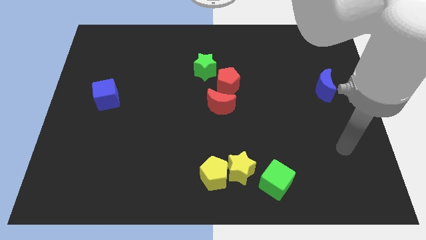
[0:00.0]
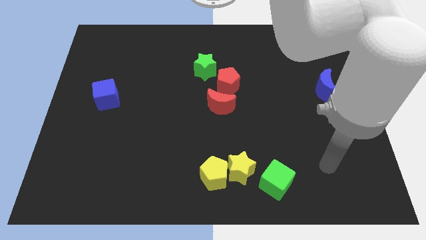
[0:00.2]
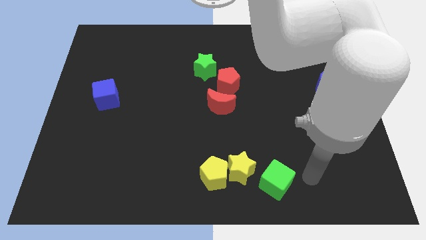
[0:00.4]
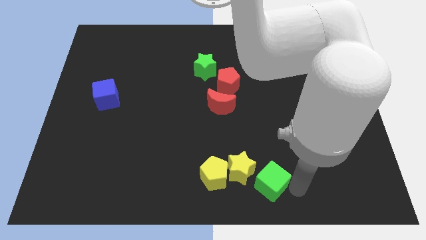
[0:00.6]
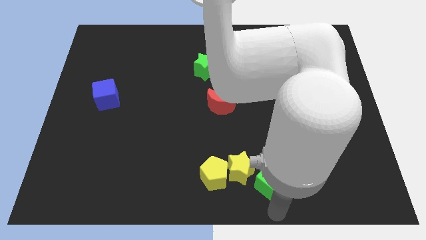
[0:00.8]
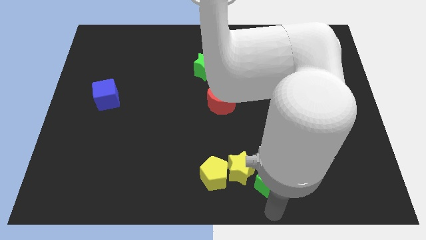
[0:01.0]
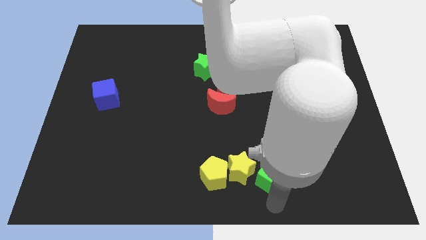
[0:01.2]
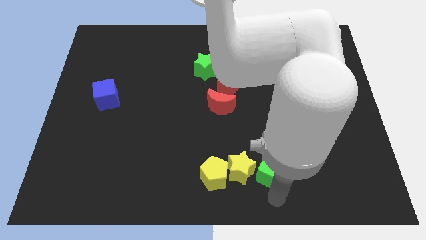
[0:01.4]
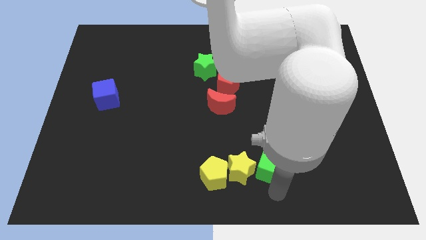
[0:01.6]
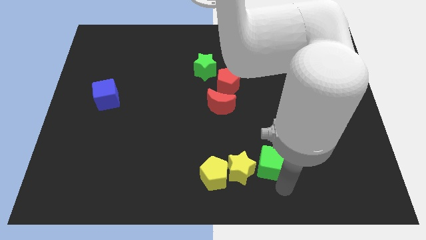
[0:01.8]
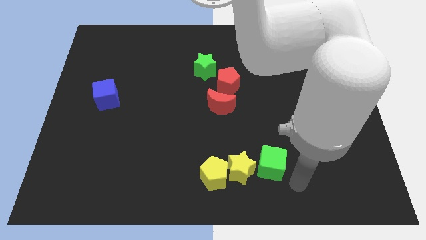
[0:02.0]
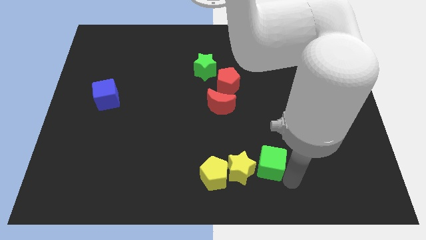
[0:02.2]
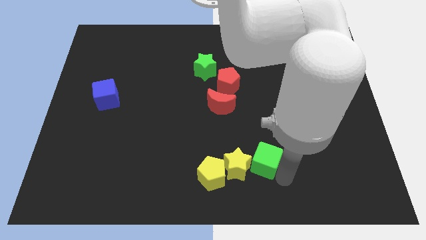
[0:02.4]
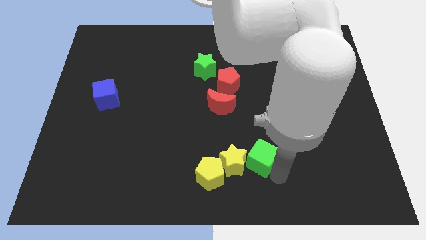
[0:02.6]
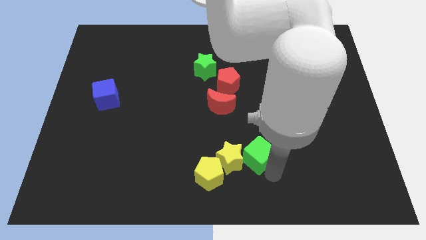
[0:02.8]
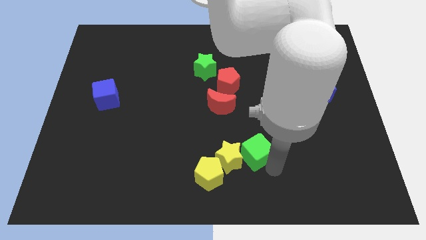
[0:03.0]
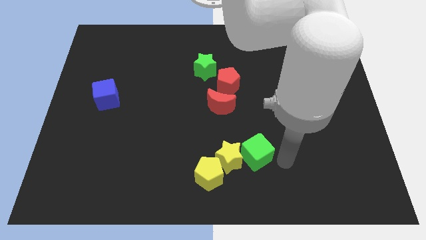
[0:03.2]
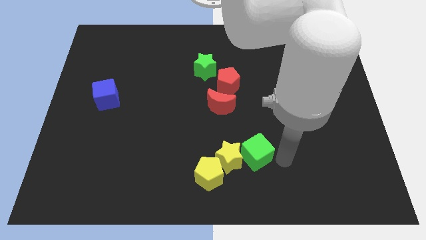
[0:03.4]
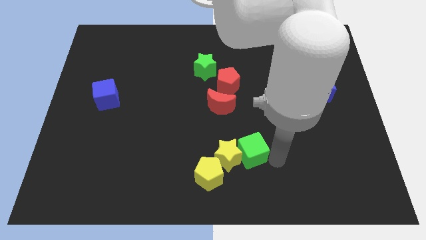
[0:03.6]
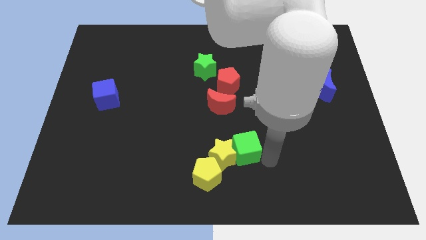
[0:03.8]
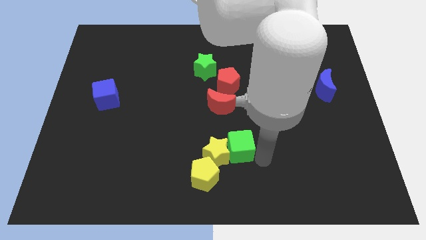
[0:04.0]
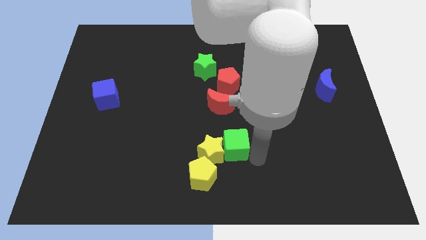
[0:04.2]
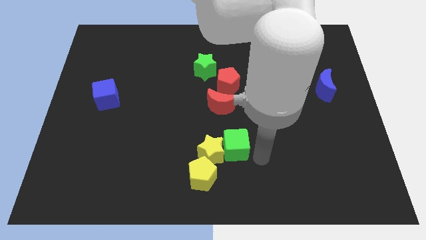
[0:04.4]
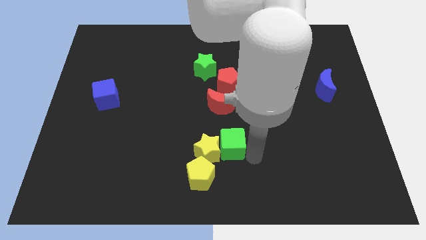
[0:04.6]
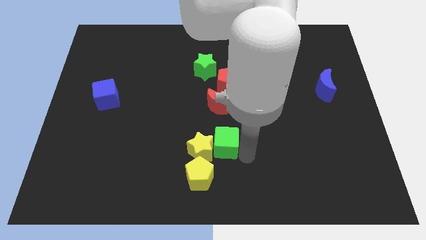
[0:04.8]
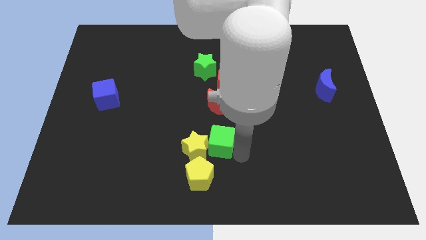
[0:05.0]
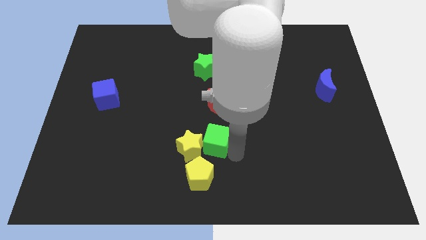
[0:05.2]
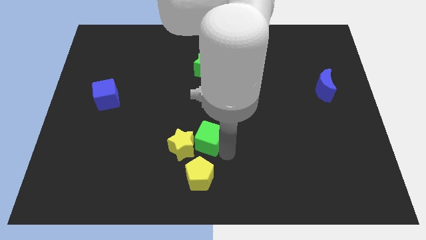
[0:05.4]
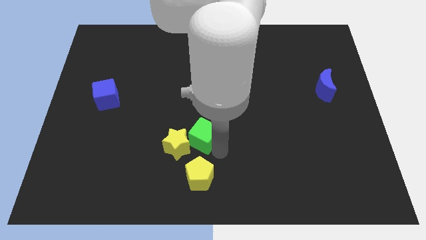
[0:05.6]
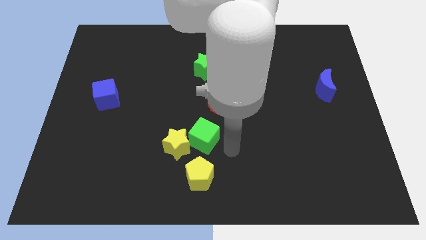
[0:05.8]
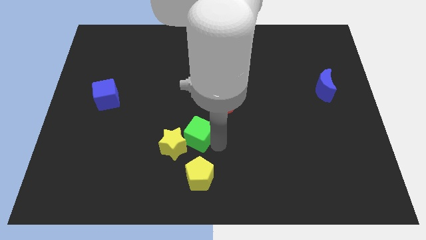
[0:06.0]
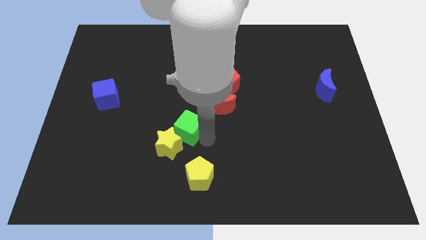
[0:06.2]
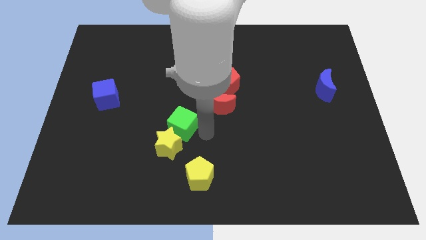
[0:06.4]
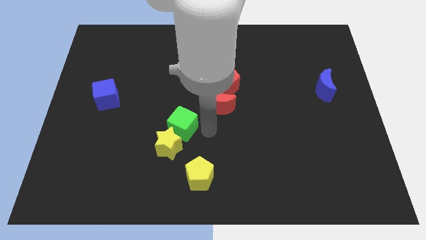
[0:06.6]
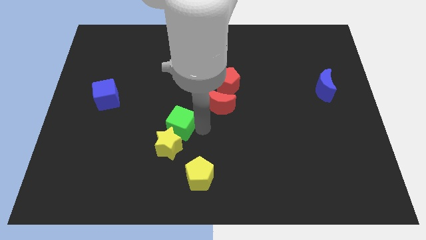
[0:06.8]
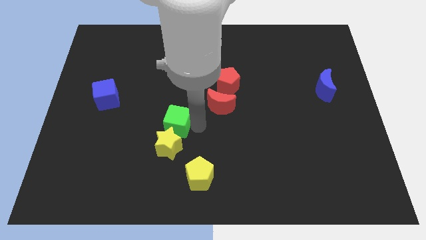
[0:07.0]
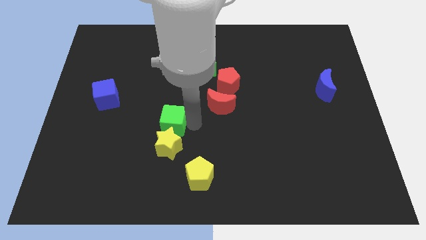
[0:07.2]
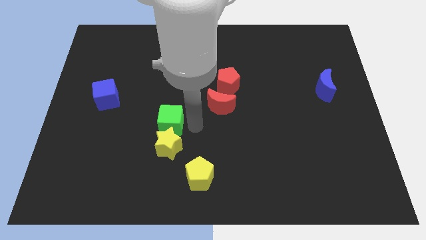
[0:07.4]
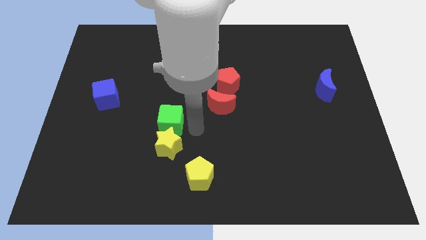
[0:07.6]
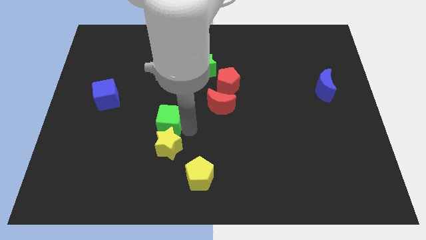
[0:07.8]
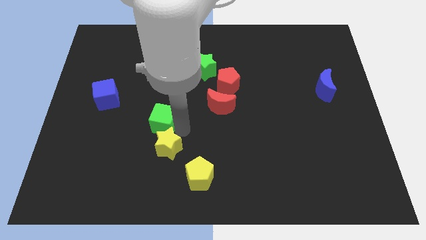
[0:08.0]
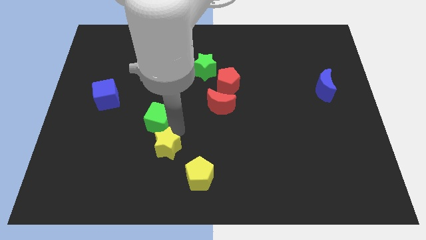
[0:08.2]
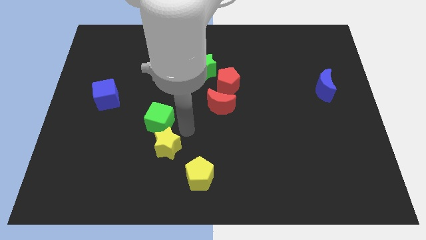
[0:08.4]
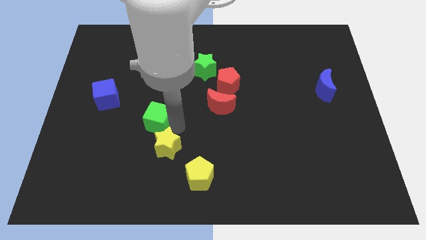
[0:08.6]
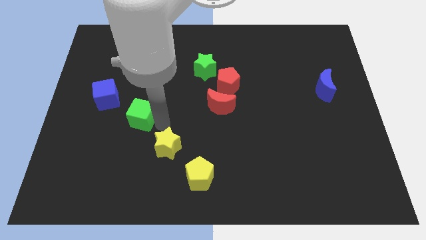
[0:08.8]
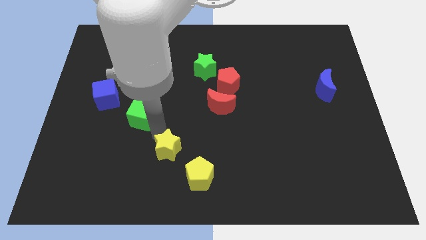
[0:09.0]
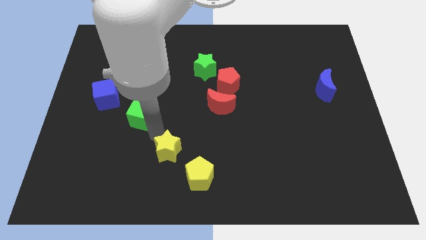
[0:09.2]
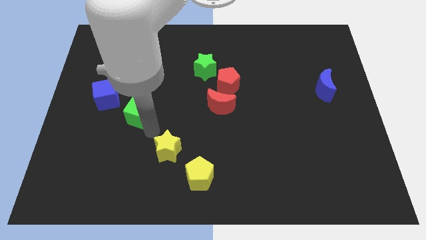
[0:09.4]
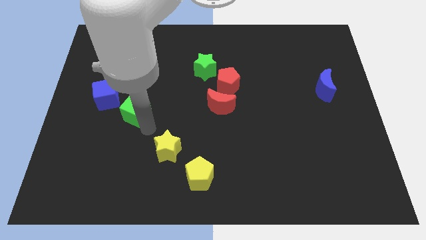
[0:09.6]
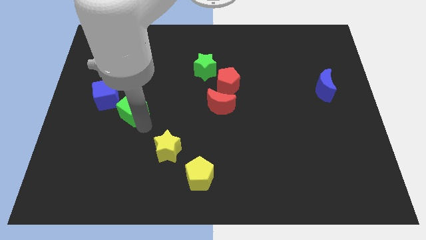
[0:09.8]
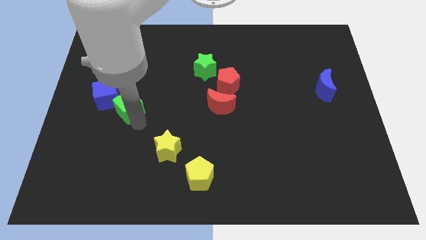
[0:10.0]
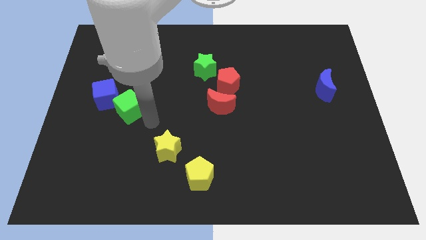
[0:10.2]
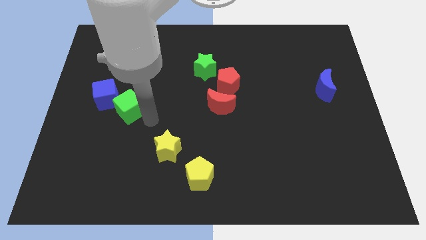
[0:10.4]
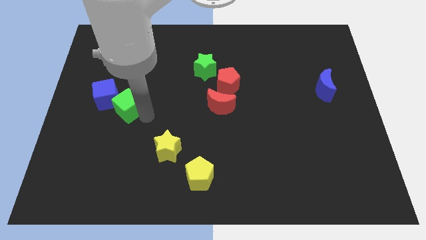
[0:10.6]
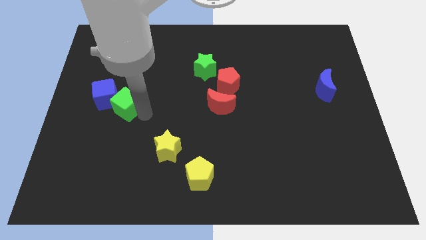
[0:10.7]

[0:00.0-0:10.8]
move the green cube close to the blue cube

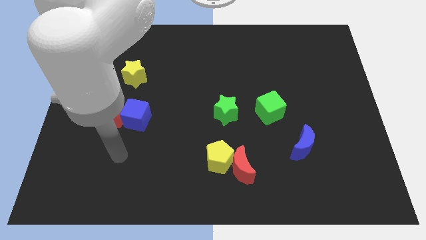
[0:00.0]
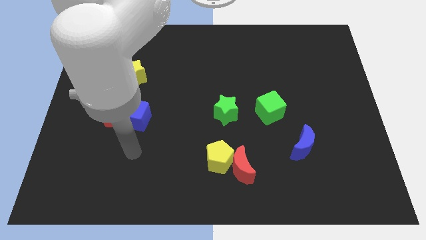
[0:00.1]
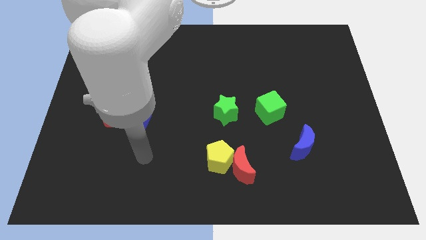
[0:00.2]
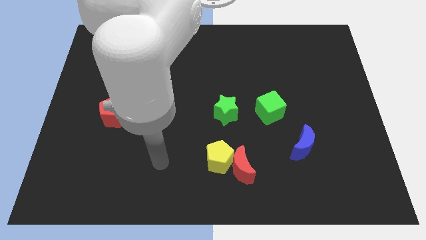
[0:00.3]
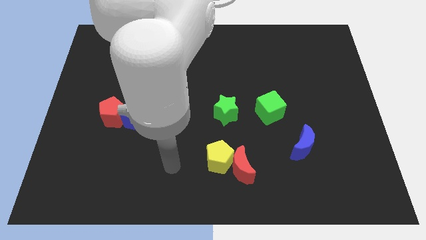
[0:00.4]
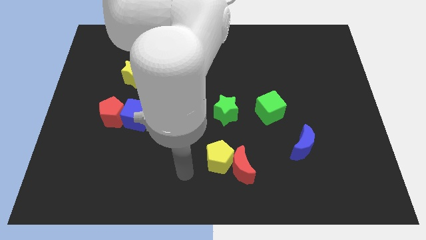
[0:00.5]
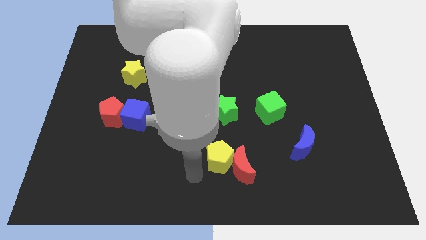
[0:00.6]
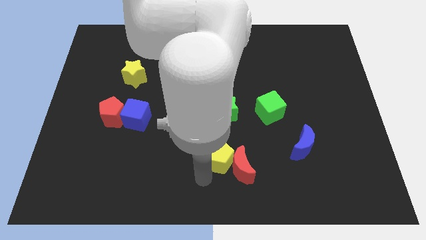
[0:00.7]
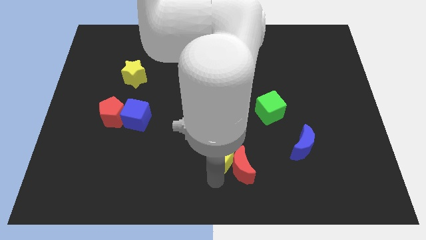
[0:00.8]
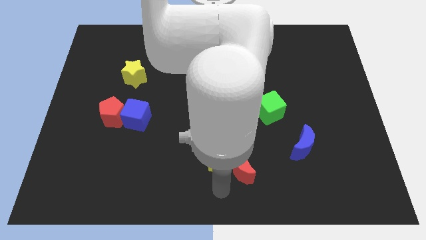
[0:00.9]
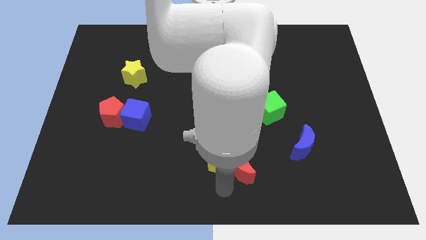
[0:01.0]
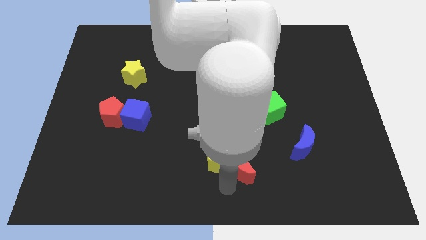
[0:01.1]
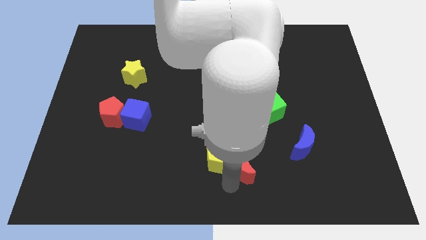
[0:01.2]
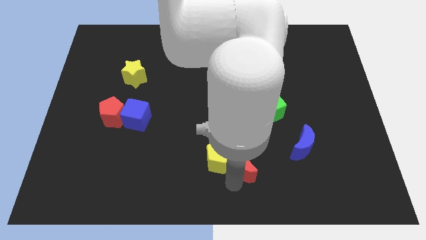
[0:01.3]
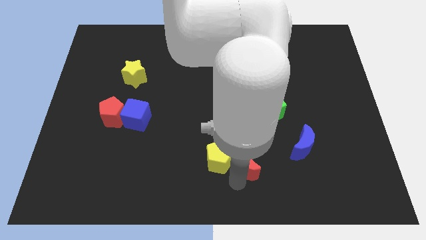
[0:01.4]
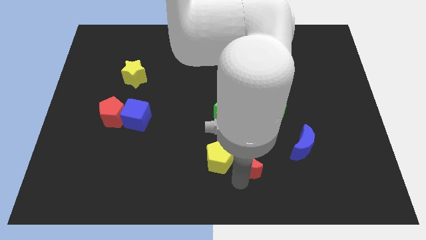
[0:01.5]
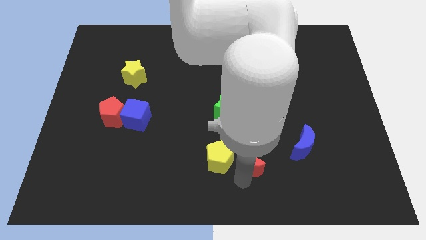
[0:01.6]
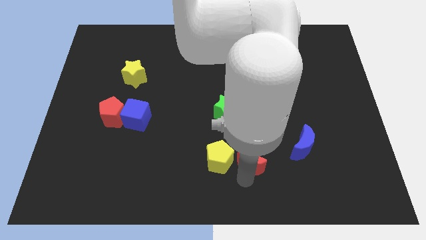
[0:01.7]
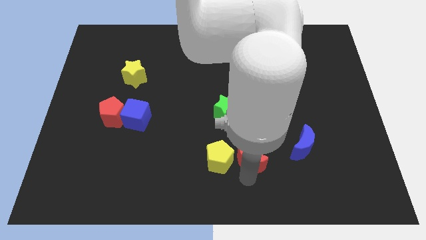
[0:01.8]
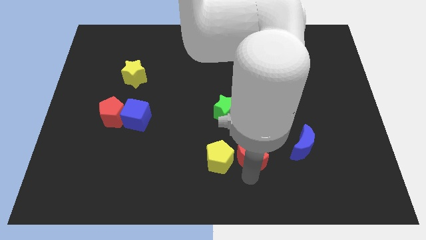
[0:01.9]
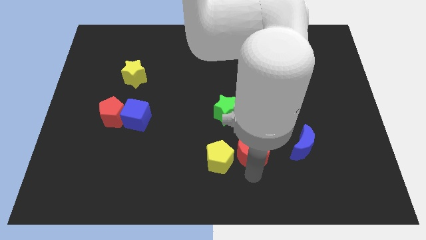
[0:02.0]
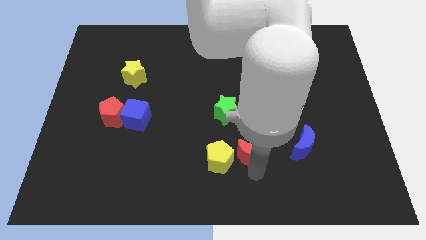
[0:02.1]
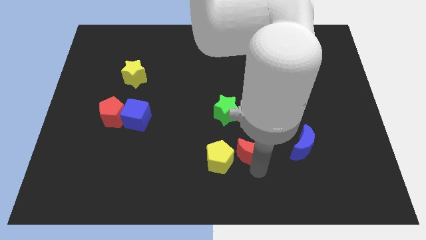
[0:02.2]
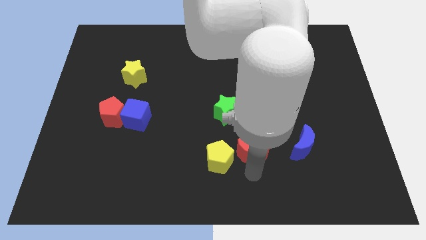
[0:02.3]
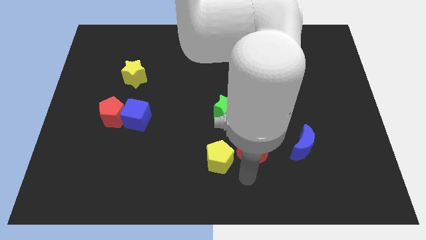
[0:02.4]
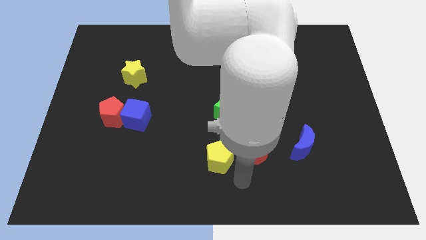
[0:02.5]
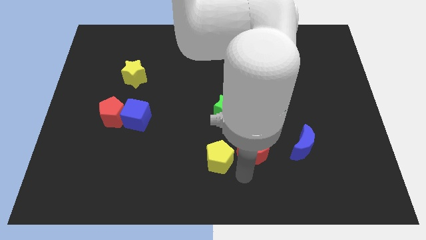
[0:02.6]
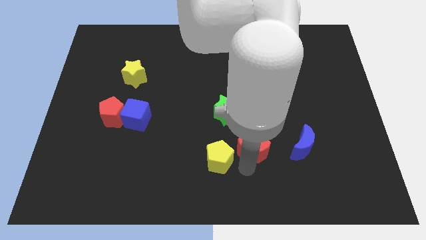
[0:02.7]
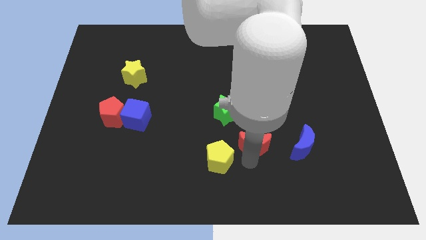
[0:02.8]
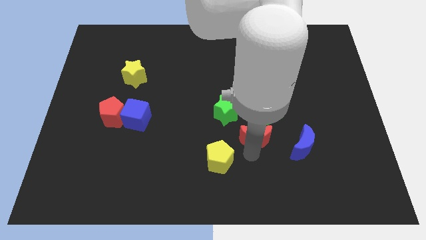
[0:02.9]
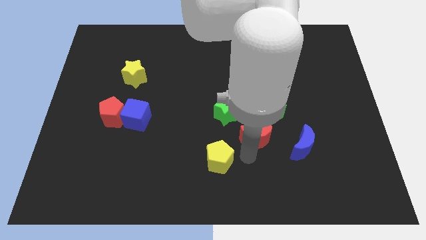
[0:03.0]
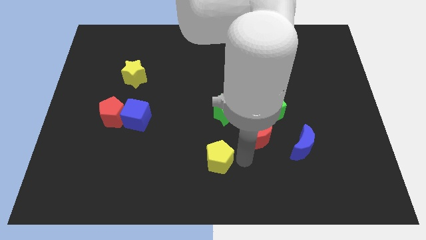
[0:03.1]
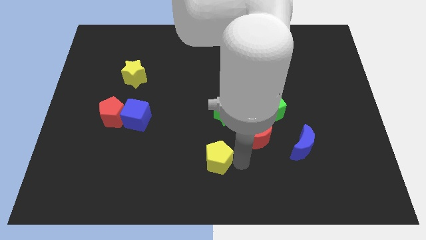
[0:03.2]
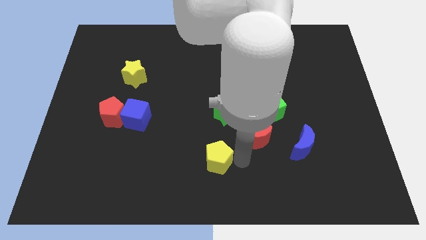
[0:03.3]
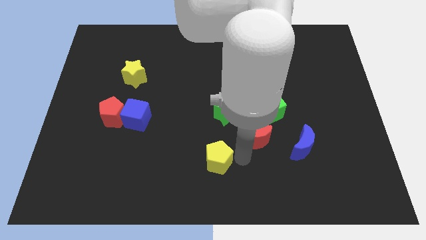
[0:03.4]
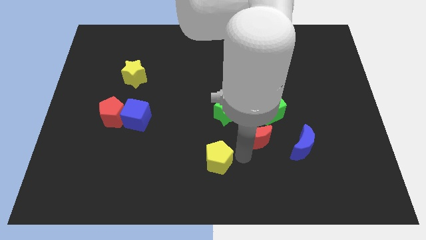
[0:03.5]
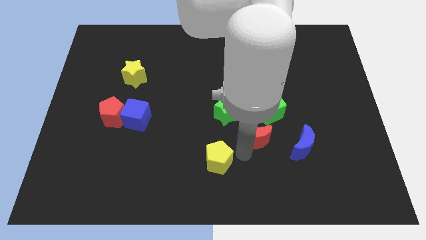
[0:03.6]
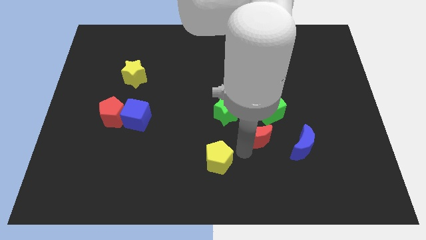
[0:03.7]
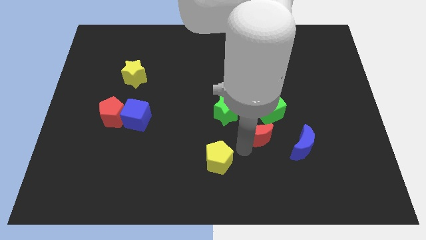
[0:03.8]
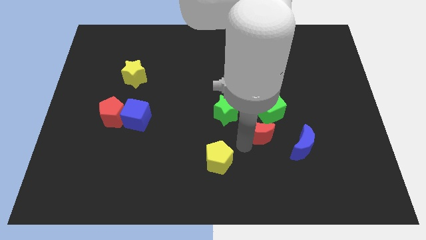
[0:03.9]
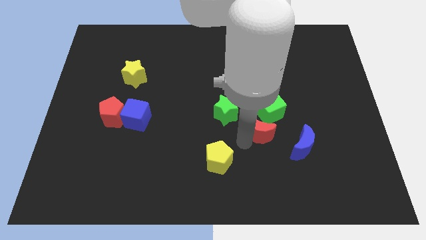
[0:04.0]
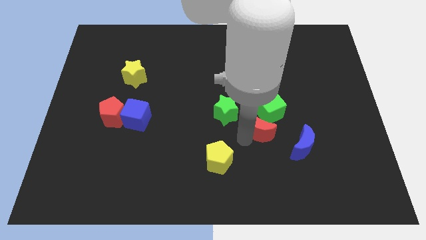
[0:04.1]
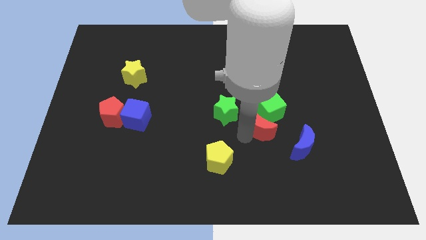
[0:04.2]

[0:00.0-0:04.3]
put the red moon towards the green cube
